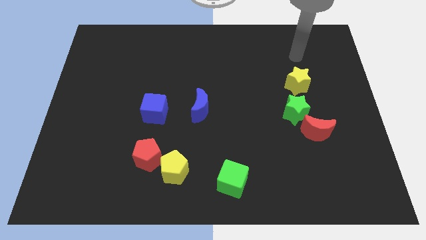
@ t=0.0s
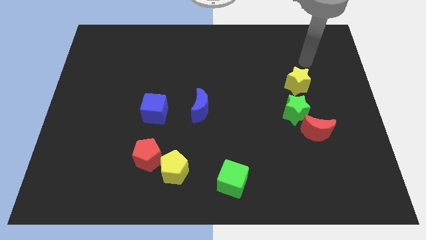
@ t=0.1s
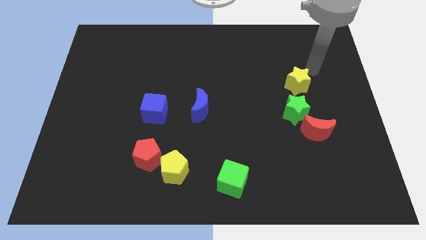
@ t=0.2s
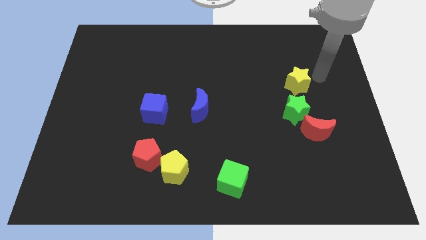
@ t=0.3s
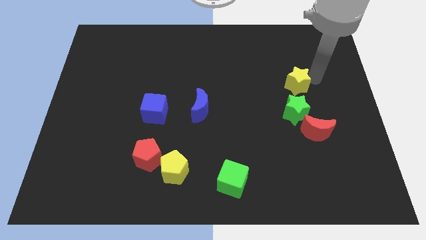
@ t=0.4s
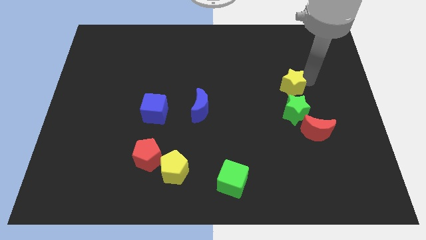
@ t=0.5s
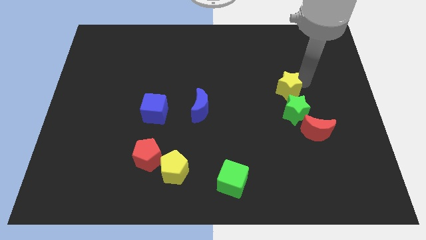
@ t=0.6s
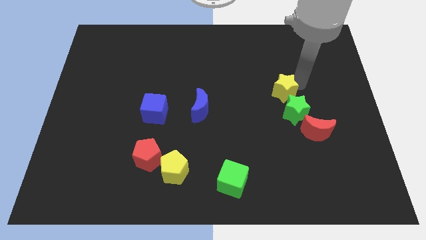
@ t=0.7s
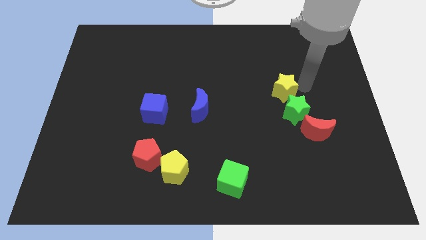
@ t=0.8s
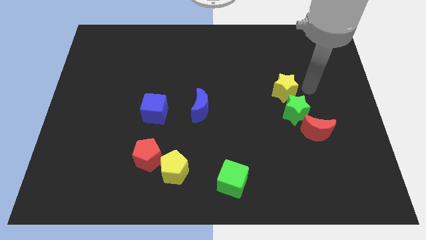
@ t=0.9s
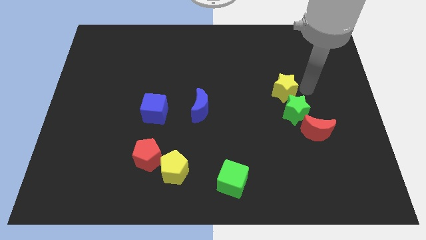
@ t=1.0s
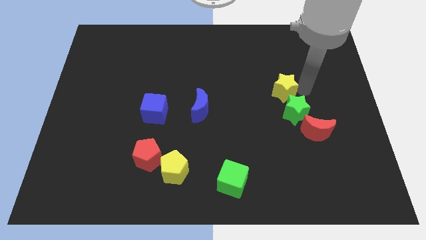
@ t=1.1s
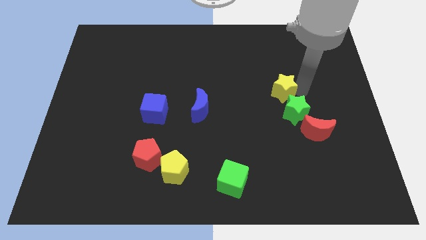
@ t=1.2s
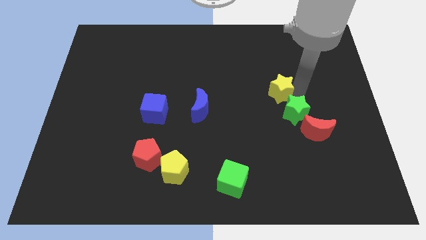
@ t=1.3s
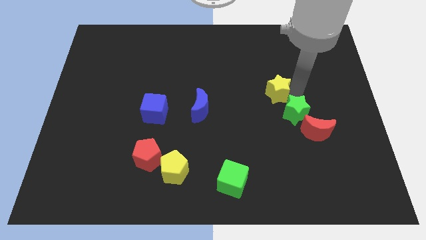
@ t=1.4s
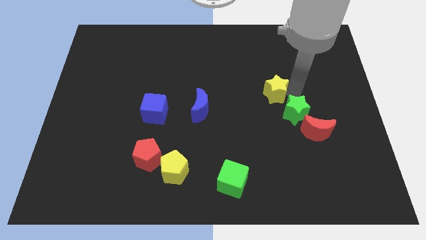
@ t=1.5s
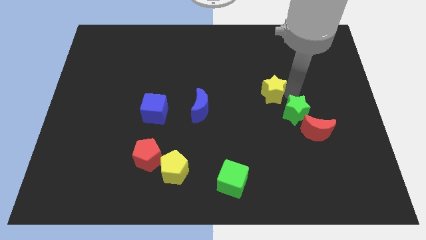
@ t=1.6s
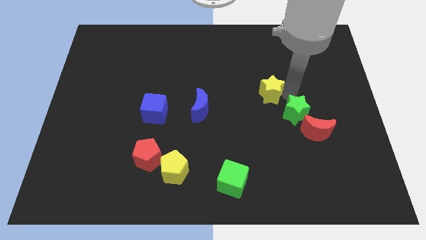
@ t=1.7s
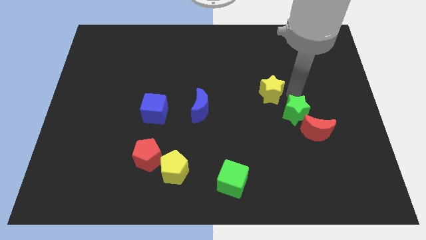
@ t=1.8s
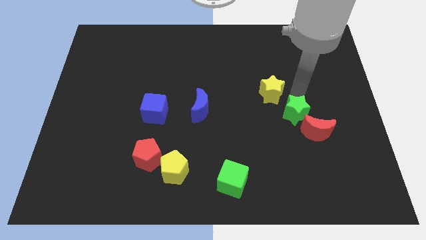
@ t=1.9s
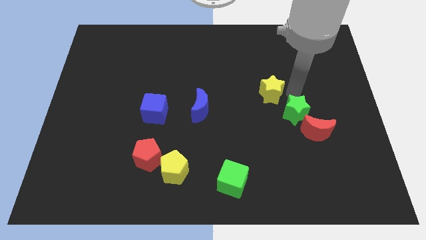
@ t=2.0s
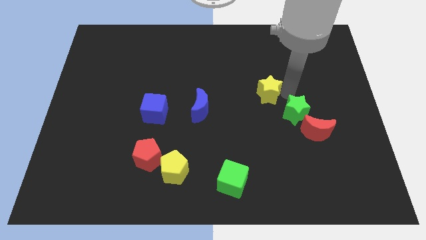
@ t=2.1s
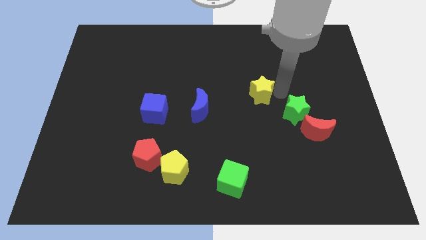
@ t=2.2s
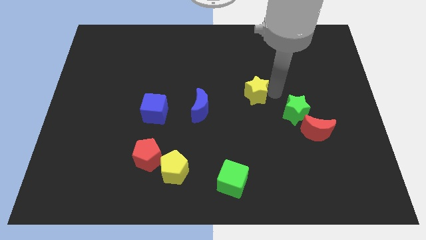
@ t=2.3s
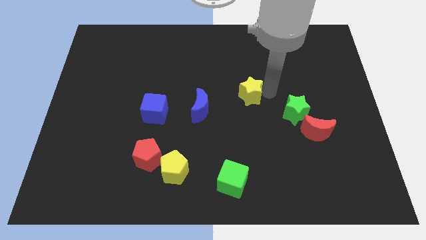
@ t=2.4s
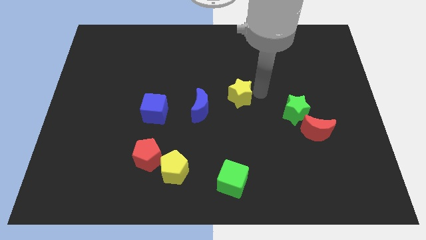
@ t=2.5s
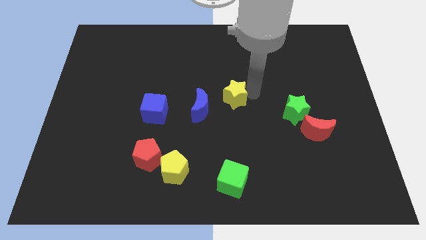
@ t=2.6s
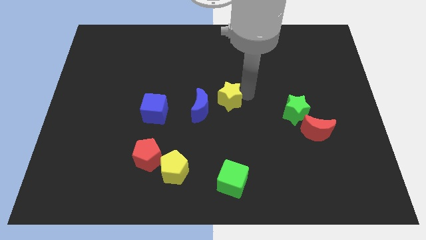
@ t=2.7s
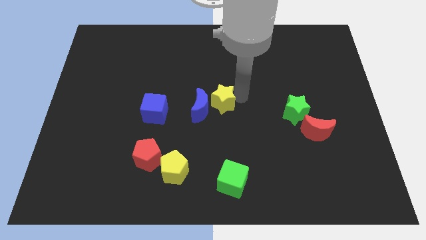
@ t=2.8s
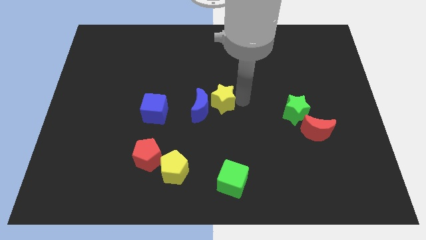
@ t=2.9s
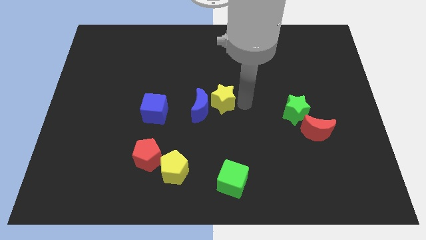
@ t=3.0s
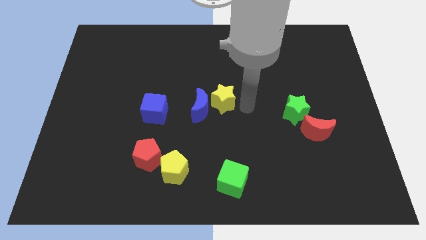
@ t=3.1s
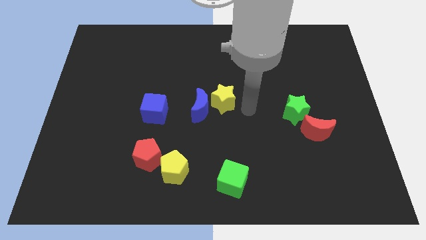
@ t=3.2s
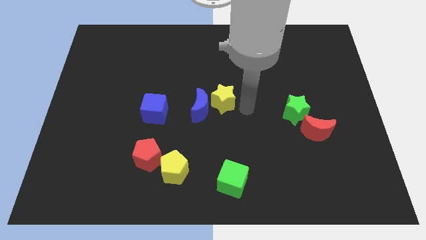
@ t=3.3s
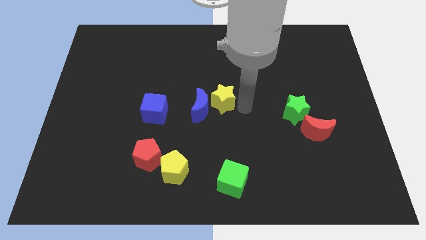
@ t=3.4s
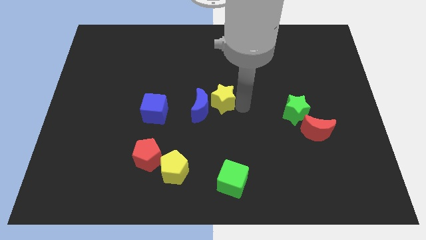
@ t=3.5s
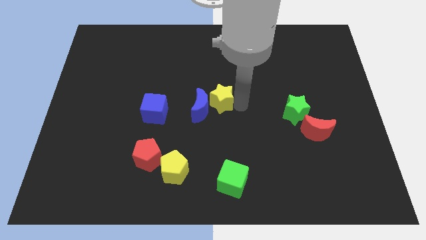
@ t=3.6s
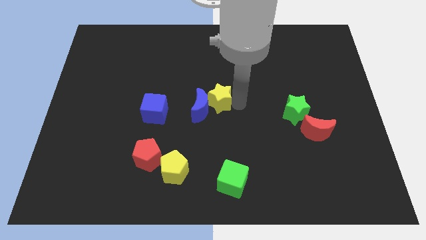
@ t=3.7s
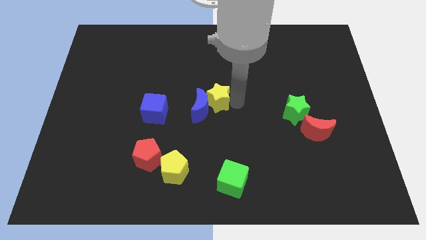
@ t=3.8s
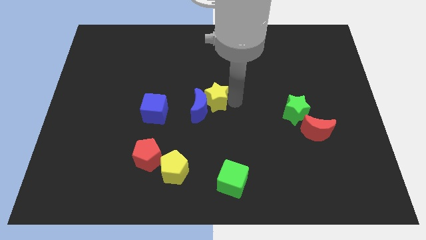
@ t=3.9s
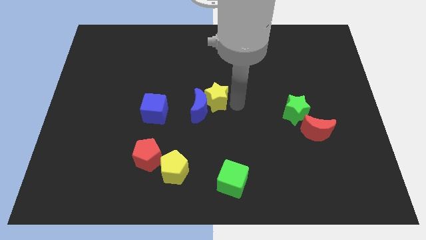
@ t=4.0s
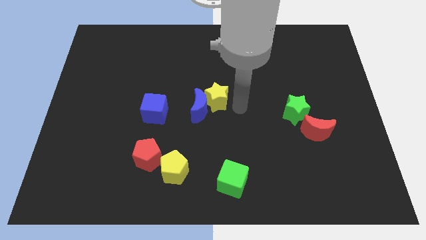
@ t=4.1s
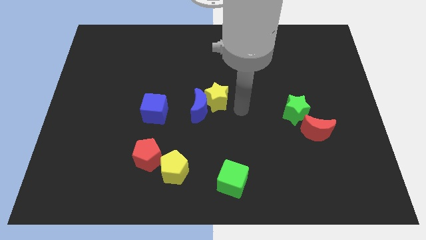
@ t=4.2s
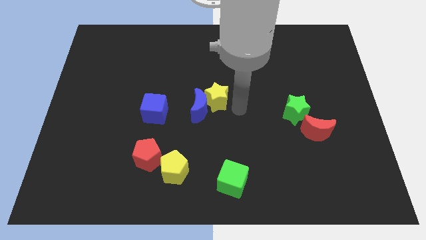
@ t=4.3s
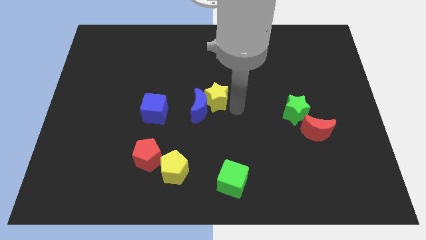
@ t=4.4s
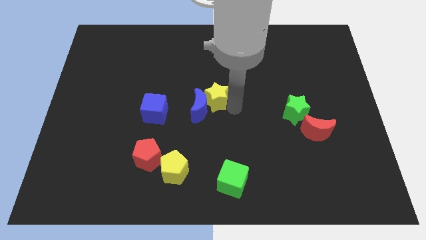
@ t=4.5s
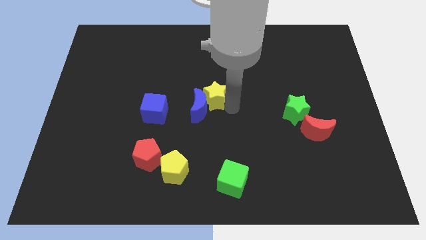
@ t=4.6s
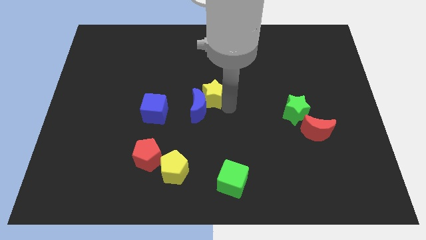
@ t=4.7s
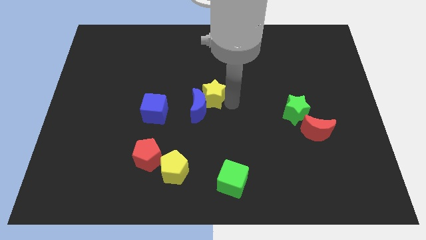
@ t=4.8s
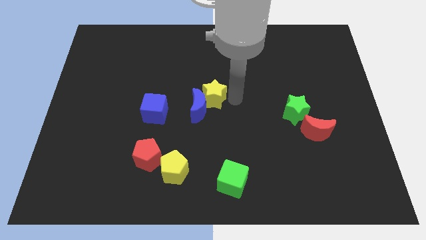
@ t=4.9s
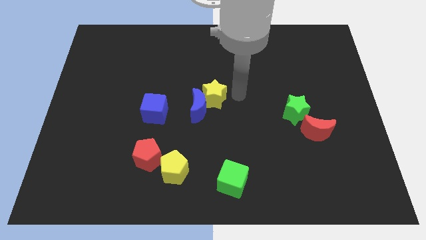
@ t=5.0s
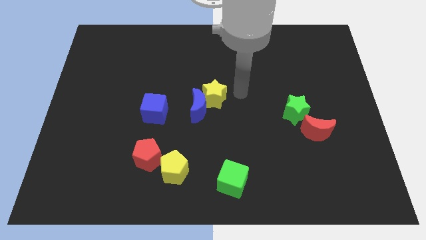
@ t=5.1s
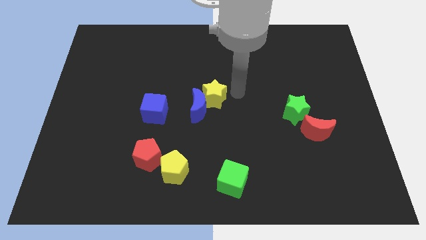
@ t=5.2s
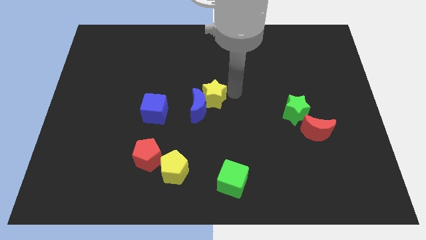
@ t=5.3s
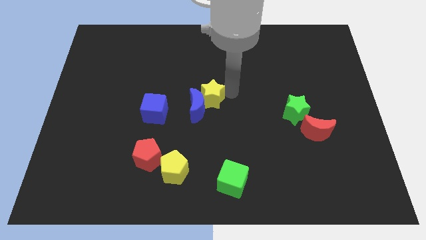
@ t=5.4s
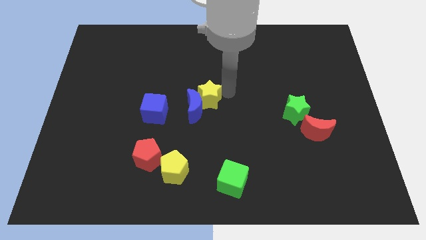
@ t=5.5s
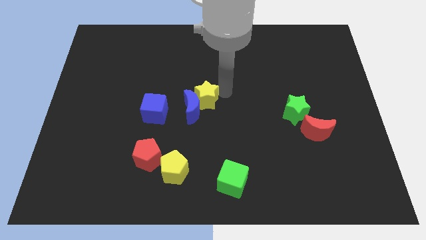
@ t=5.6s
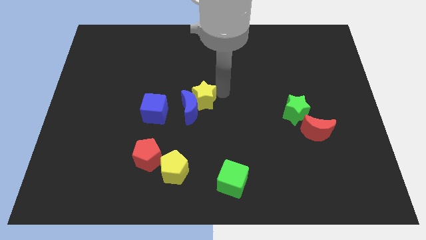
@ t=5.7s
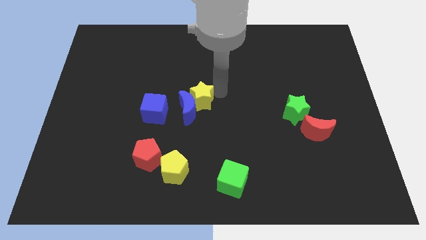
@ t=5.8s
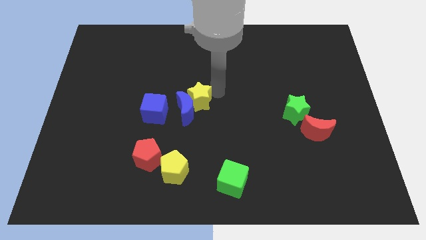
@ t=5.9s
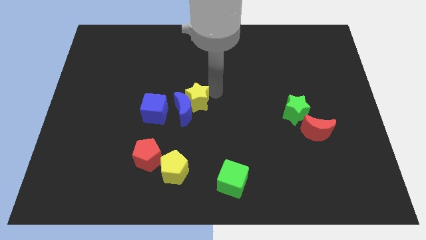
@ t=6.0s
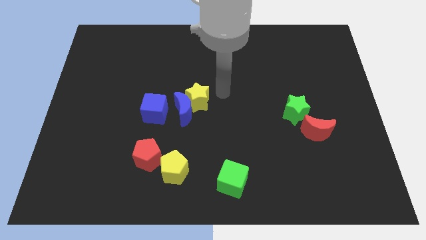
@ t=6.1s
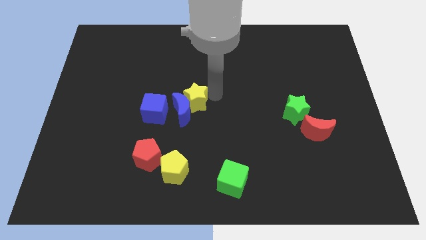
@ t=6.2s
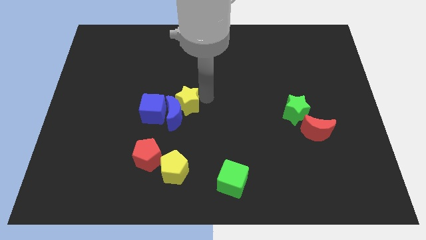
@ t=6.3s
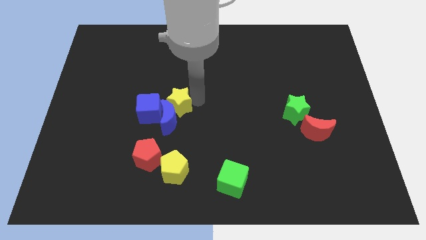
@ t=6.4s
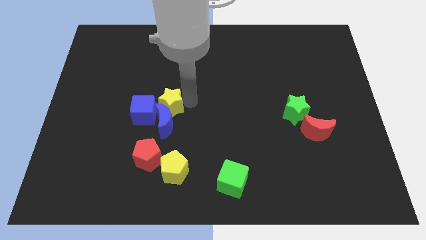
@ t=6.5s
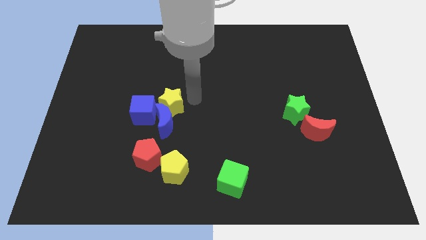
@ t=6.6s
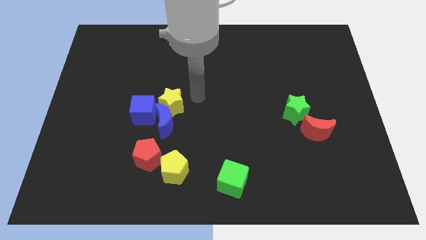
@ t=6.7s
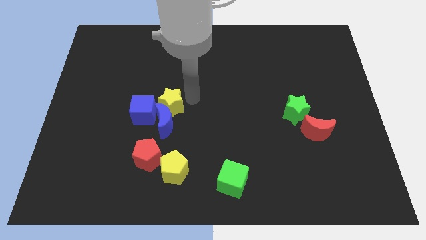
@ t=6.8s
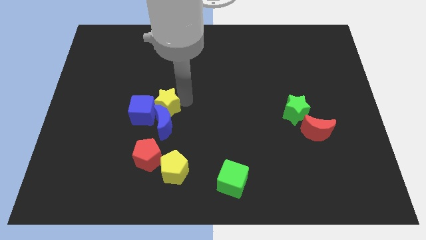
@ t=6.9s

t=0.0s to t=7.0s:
put the yellow star next to the blue cube
